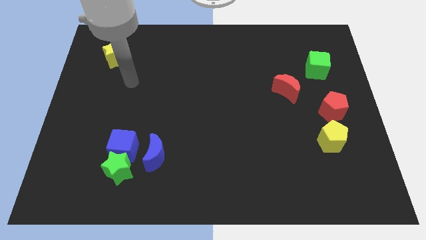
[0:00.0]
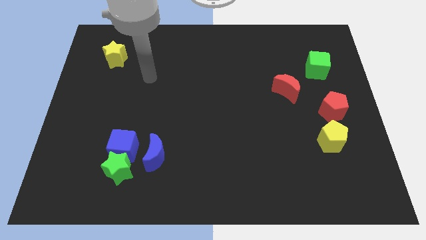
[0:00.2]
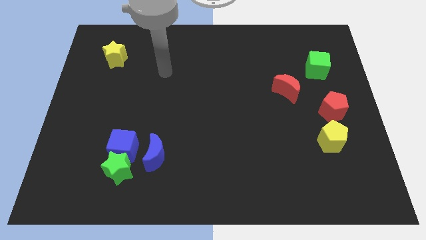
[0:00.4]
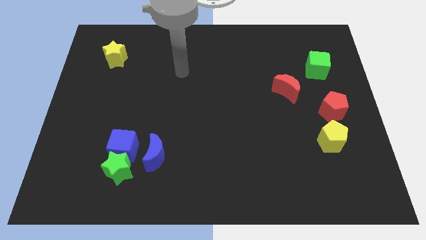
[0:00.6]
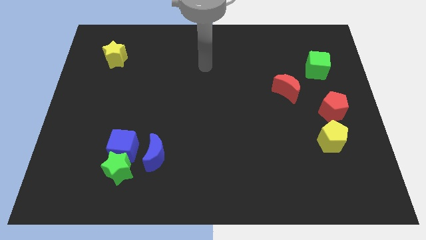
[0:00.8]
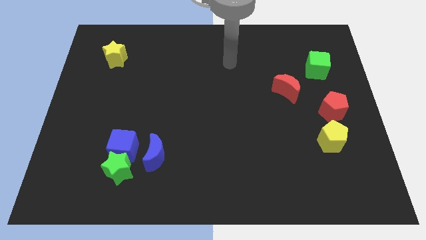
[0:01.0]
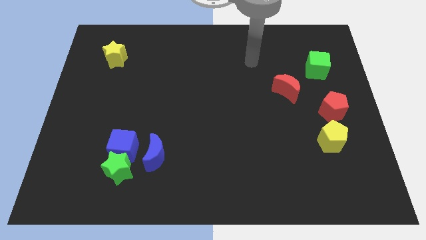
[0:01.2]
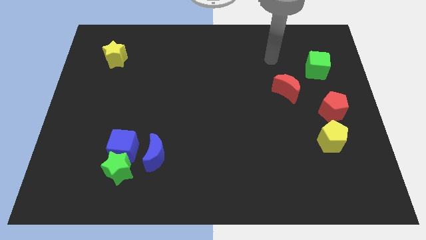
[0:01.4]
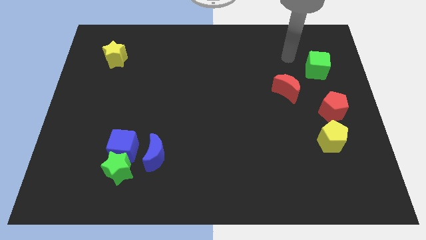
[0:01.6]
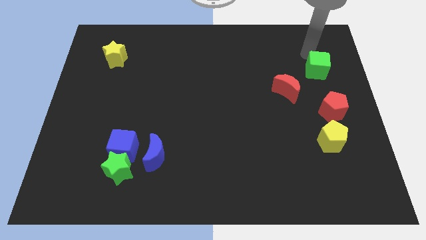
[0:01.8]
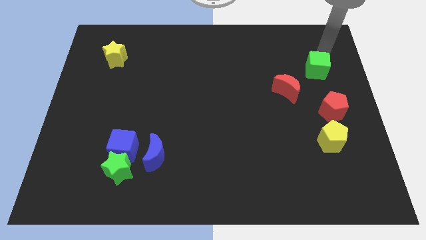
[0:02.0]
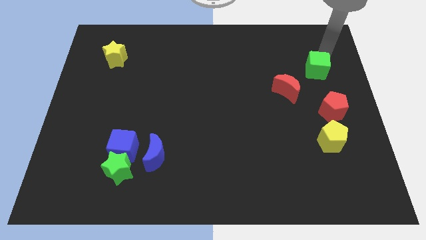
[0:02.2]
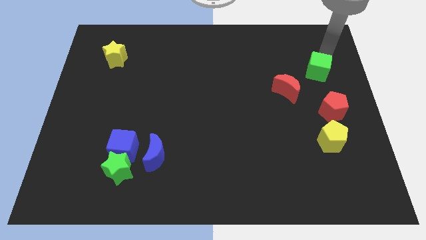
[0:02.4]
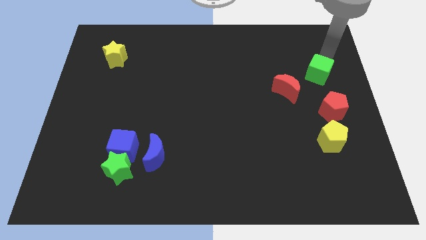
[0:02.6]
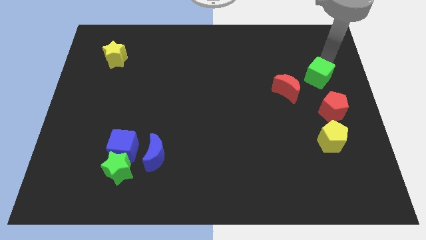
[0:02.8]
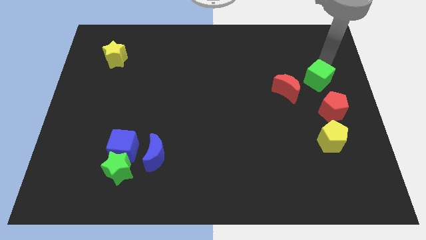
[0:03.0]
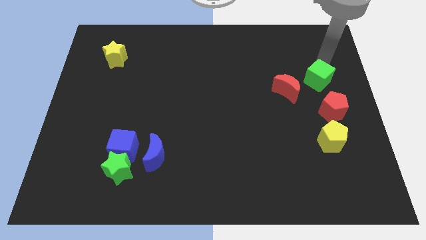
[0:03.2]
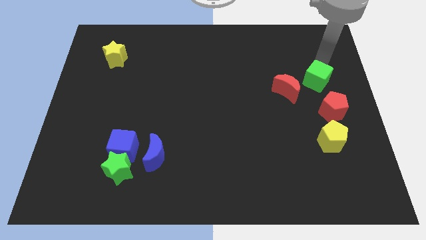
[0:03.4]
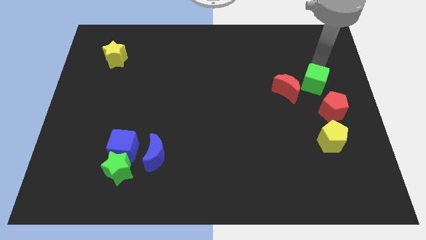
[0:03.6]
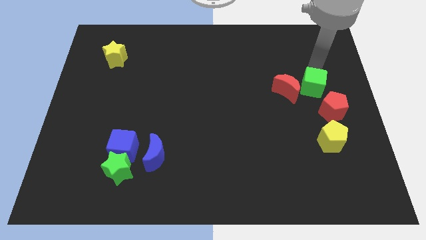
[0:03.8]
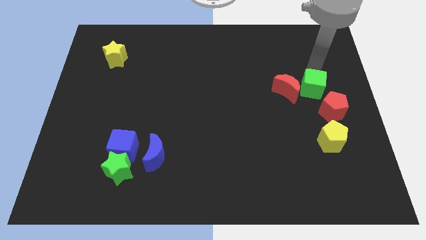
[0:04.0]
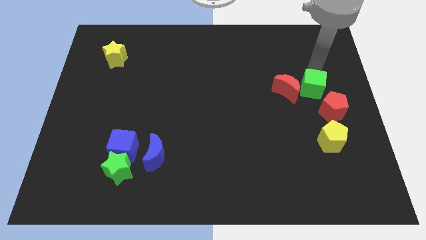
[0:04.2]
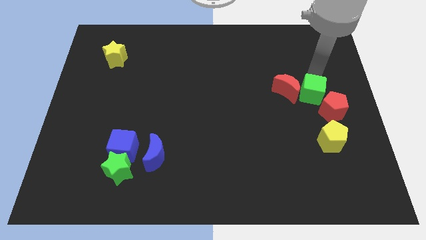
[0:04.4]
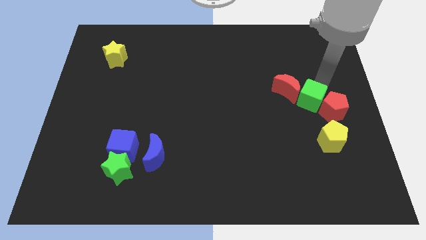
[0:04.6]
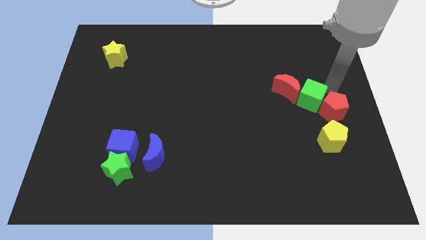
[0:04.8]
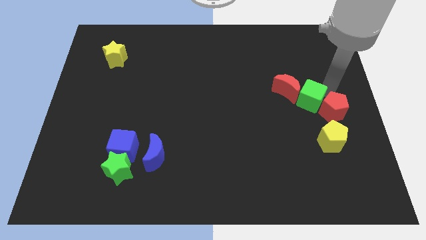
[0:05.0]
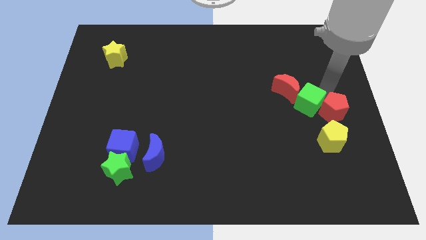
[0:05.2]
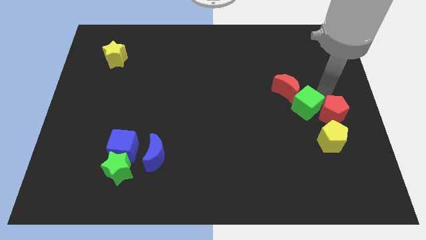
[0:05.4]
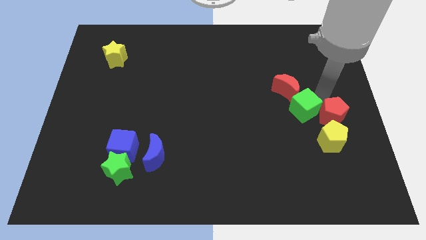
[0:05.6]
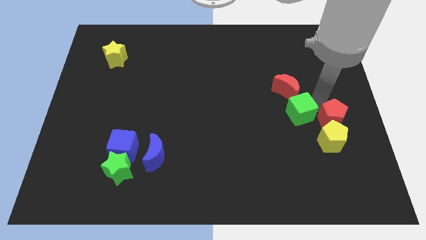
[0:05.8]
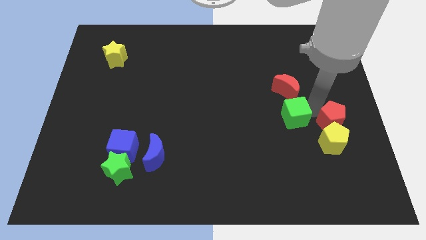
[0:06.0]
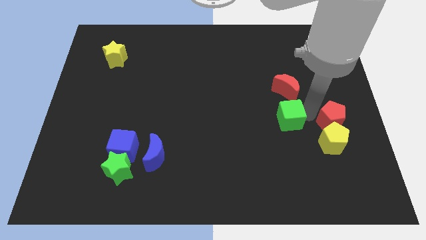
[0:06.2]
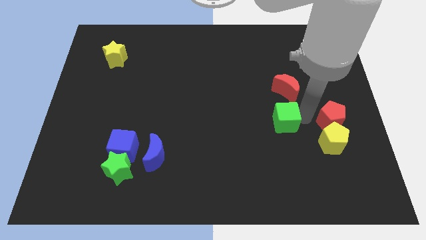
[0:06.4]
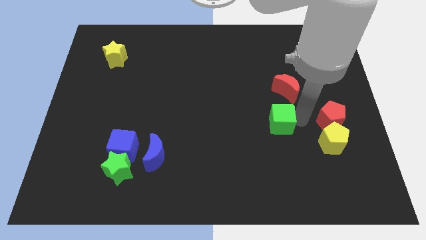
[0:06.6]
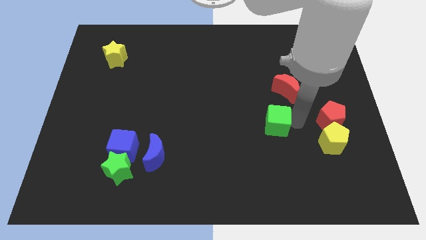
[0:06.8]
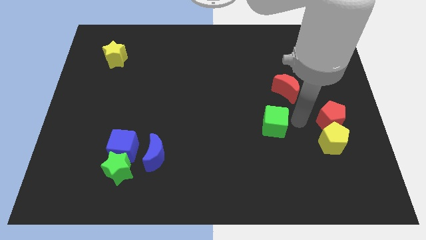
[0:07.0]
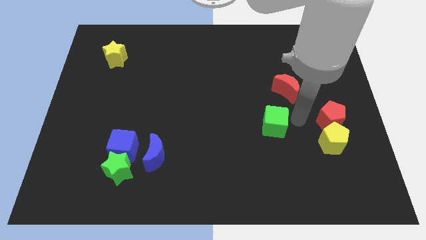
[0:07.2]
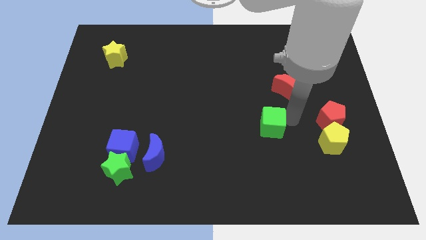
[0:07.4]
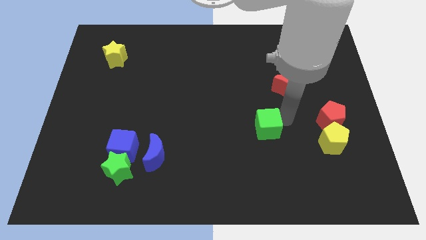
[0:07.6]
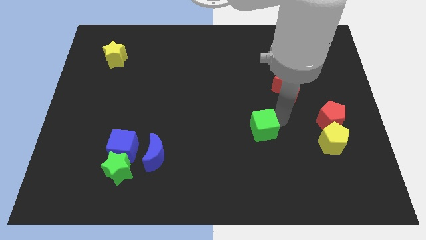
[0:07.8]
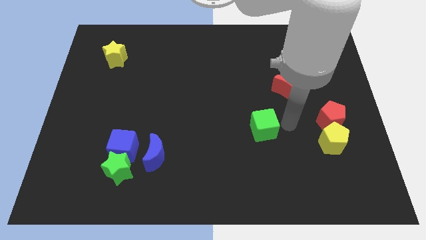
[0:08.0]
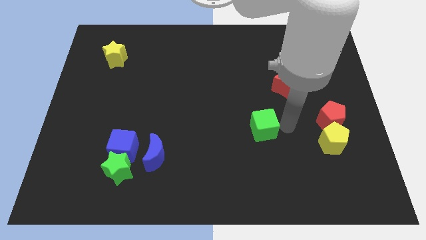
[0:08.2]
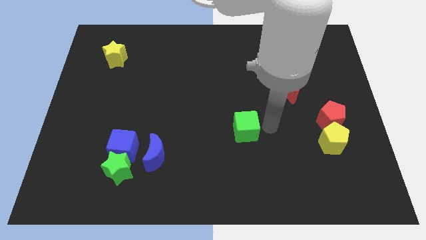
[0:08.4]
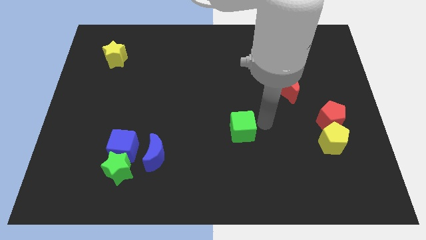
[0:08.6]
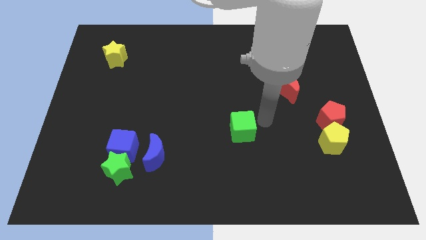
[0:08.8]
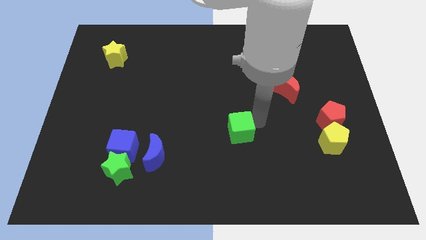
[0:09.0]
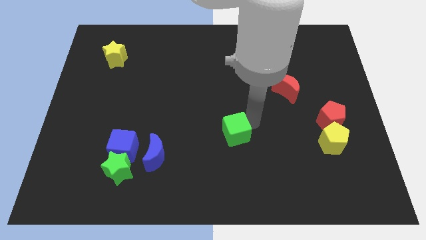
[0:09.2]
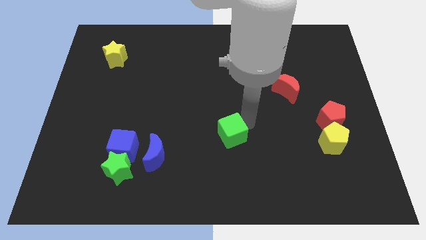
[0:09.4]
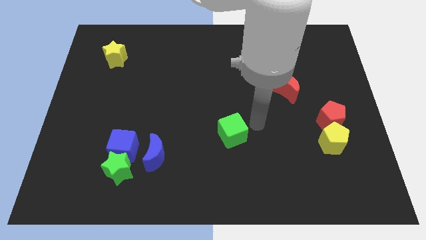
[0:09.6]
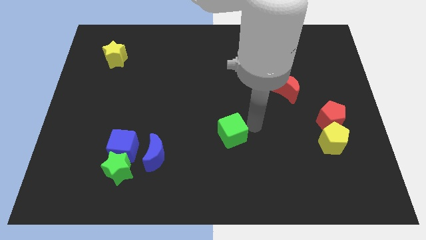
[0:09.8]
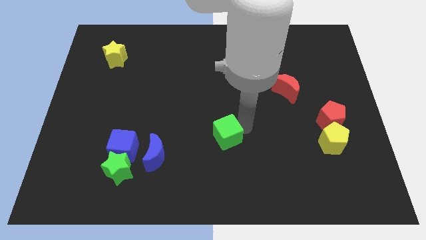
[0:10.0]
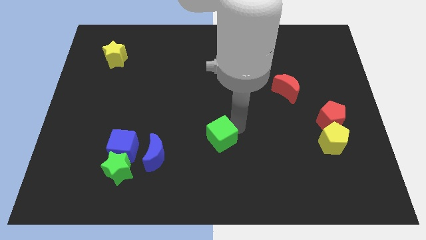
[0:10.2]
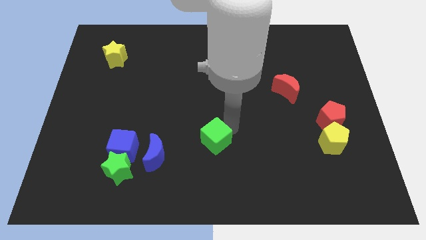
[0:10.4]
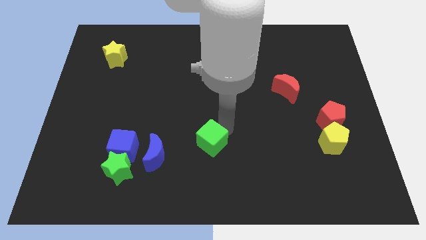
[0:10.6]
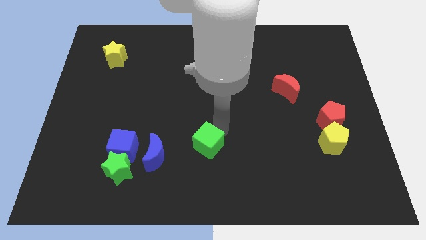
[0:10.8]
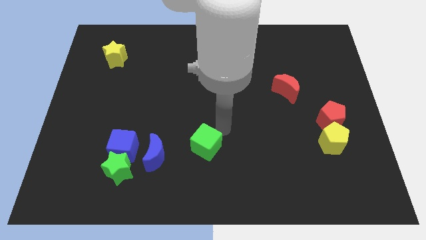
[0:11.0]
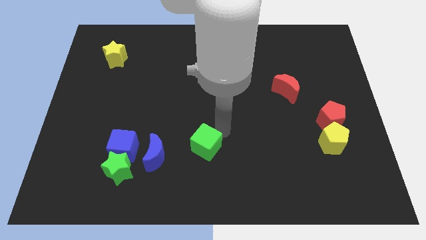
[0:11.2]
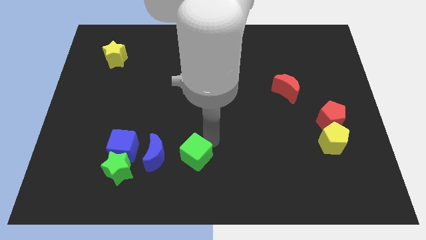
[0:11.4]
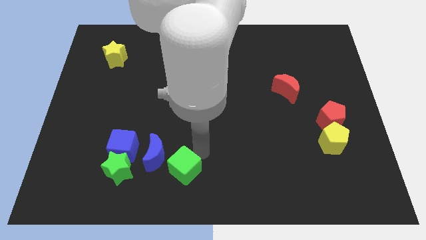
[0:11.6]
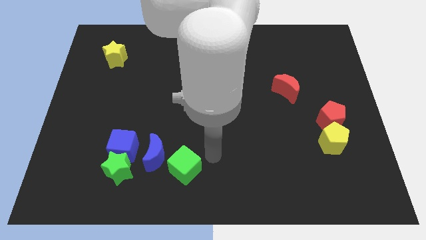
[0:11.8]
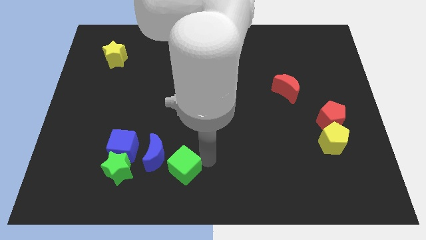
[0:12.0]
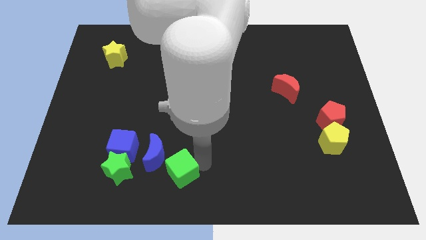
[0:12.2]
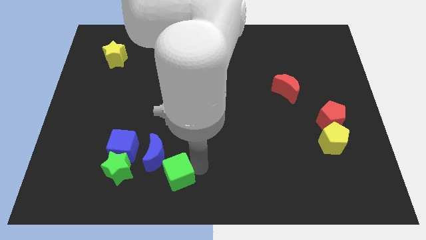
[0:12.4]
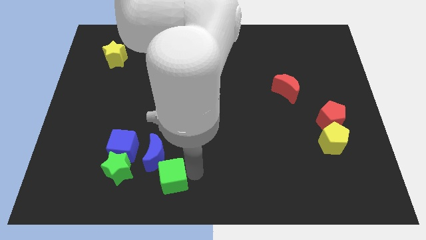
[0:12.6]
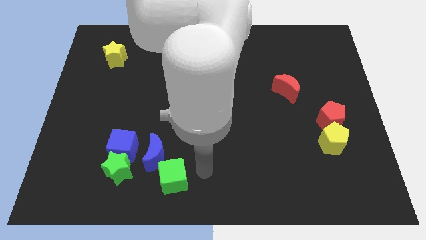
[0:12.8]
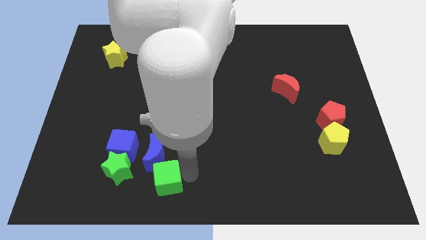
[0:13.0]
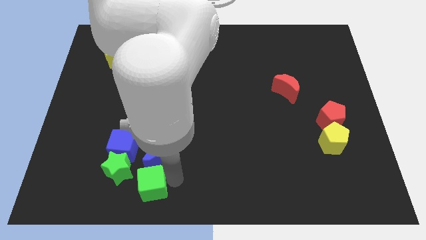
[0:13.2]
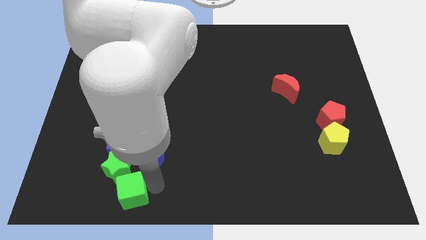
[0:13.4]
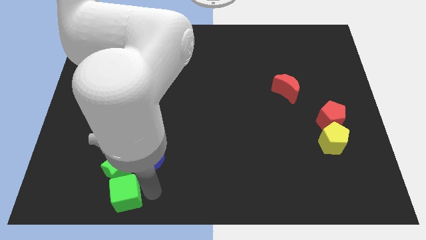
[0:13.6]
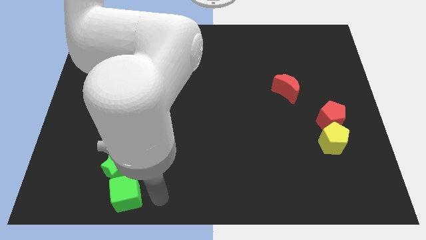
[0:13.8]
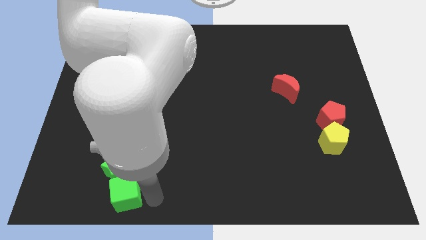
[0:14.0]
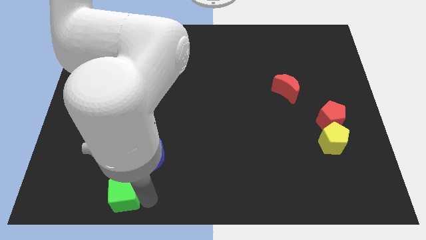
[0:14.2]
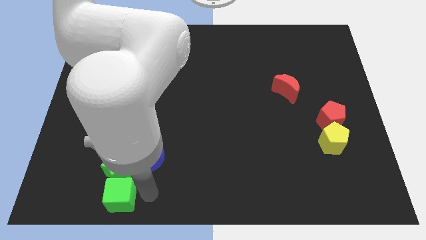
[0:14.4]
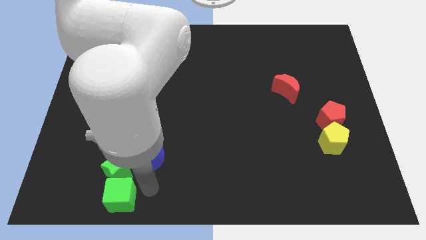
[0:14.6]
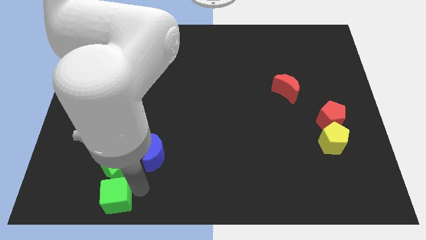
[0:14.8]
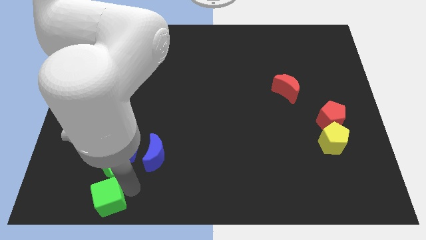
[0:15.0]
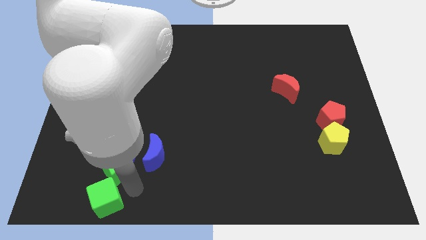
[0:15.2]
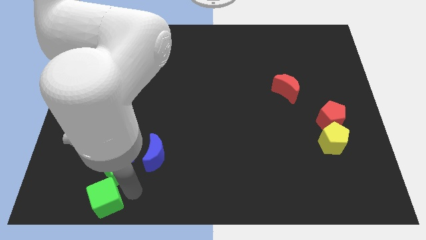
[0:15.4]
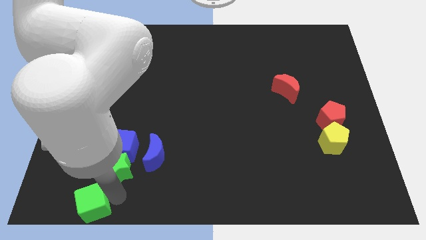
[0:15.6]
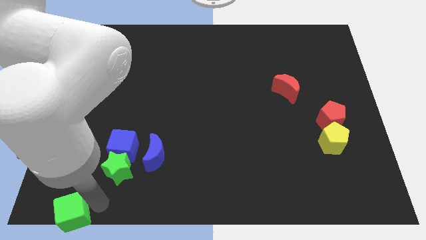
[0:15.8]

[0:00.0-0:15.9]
put the green cube to the bottom left
